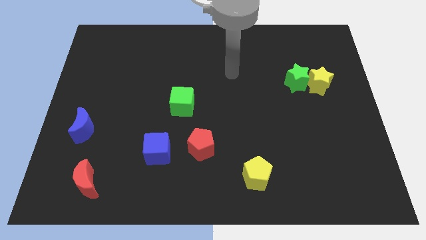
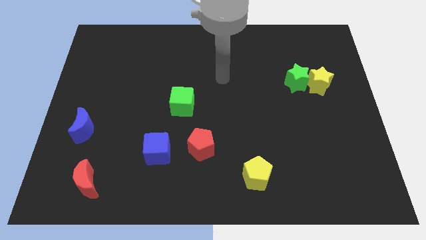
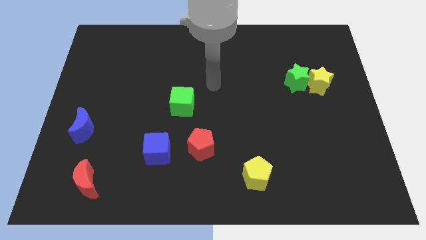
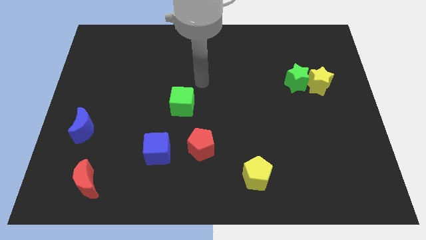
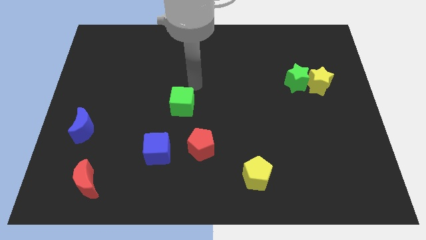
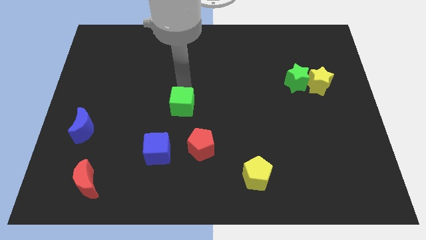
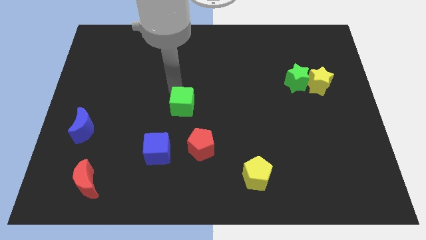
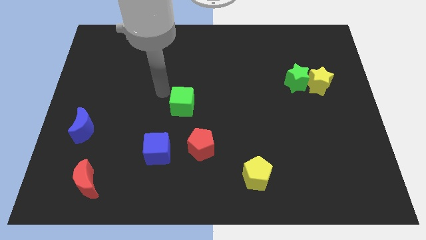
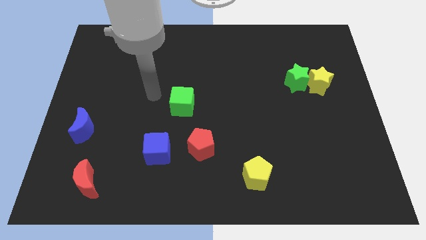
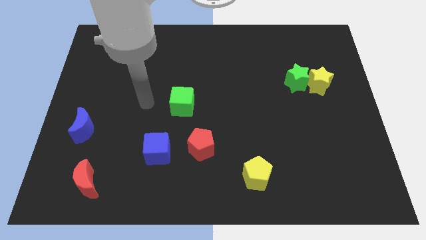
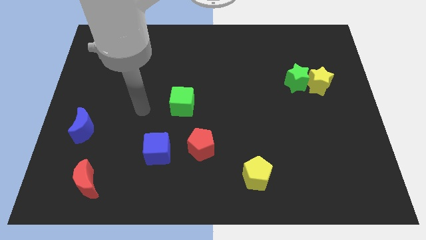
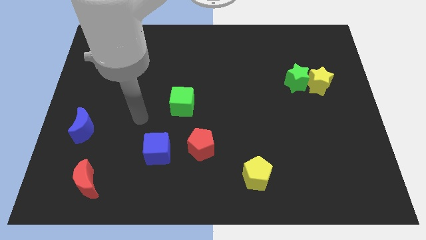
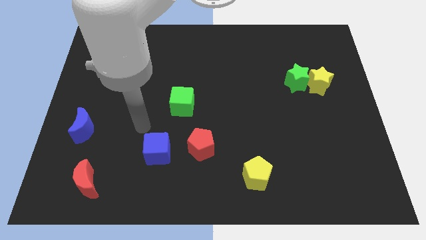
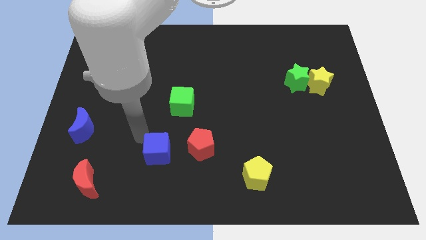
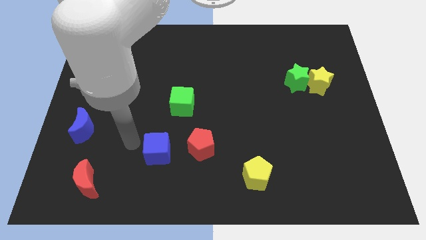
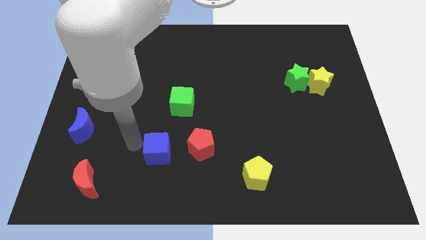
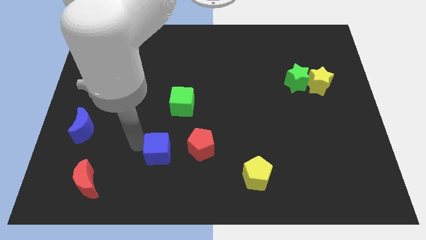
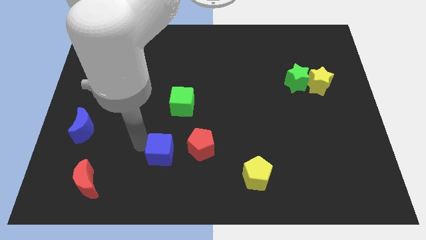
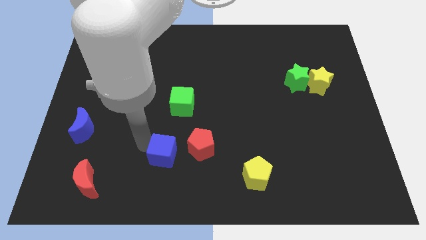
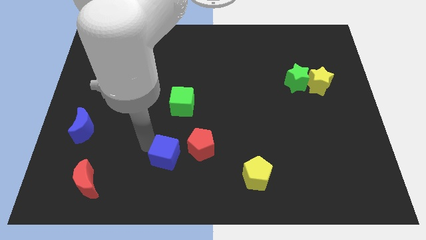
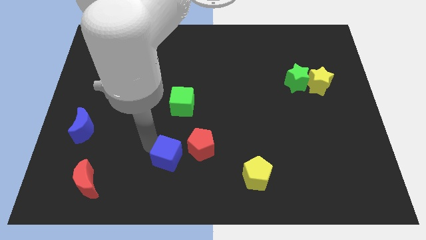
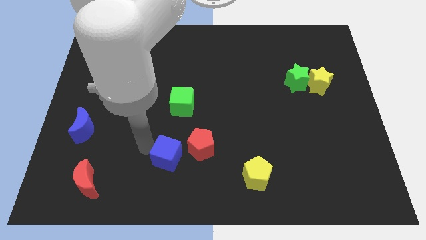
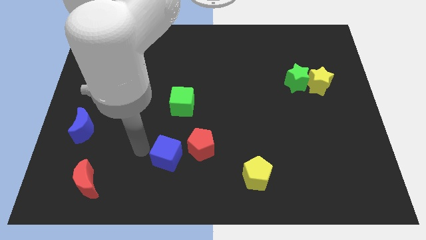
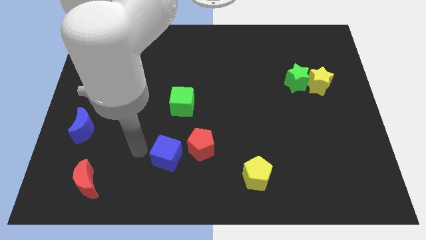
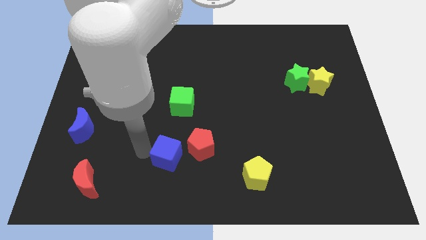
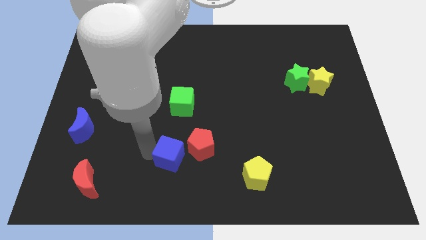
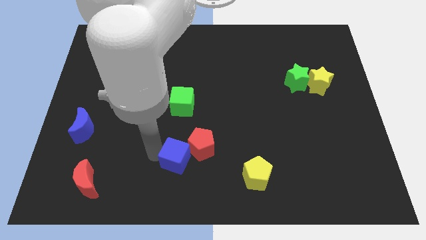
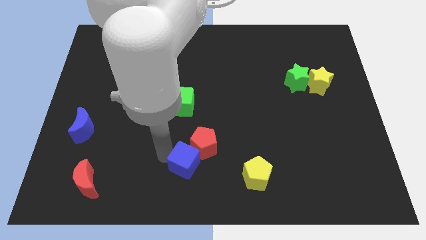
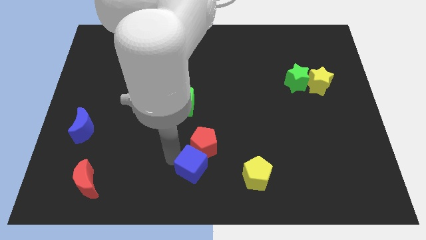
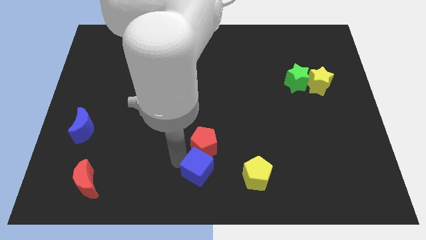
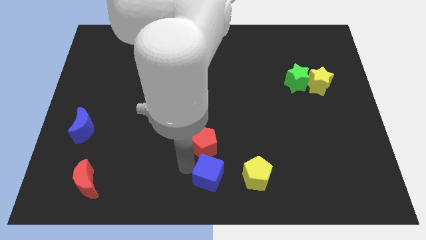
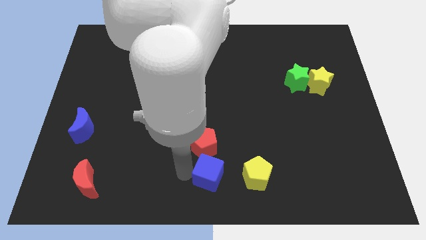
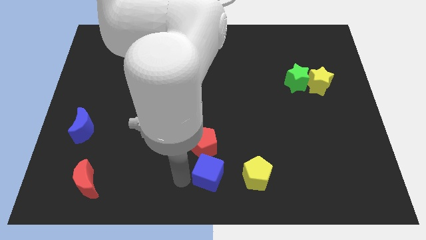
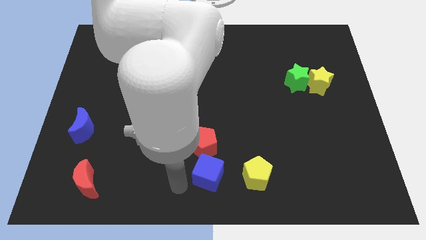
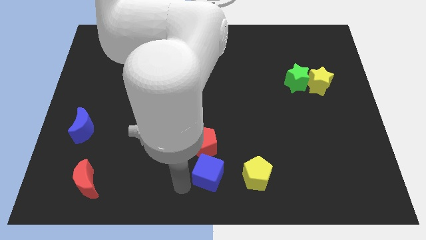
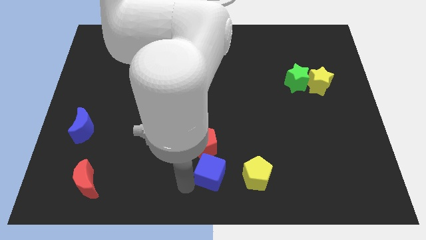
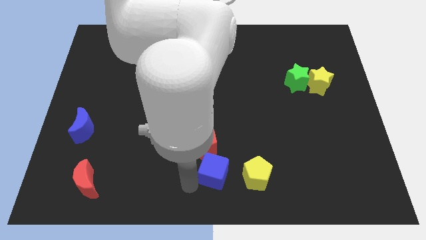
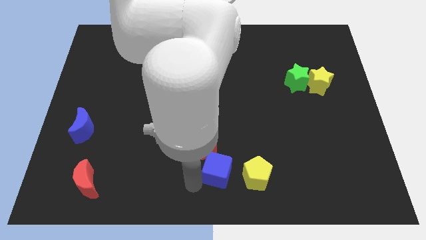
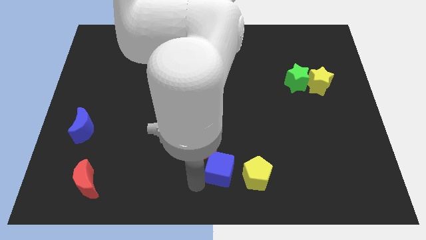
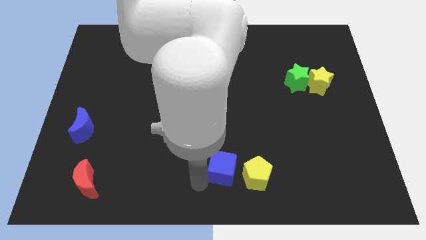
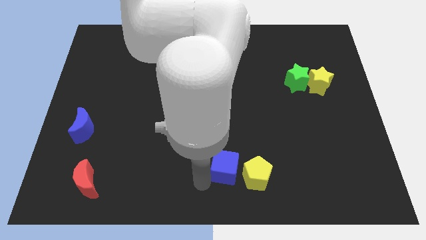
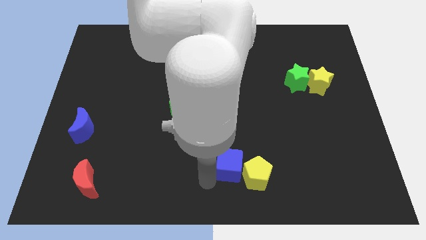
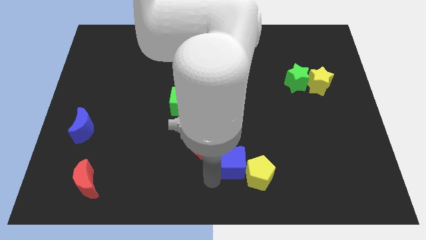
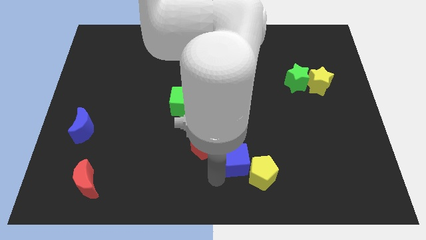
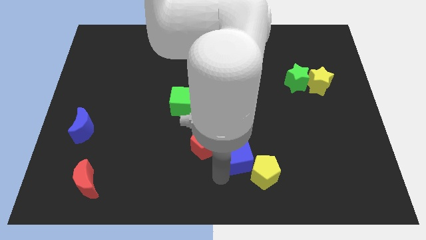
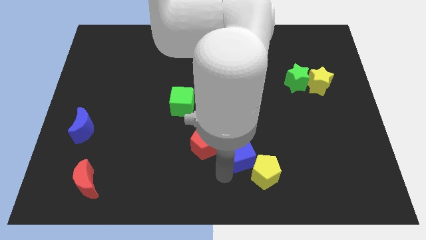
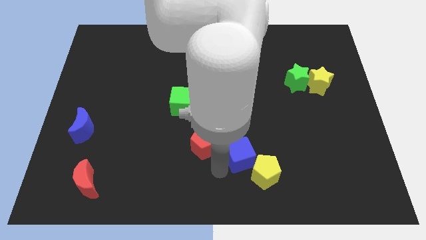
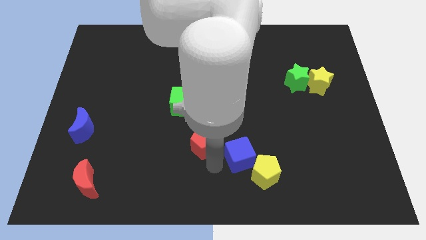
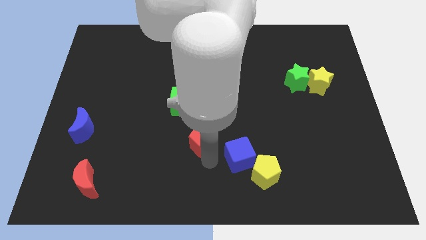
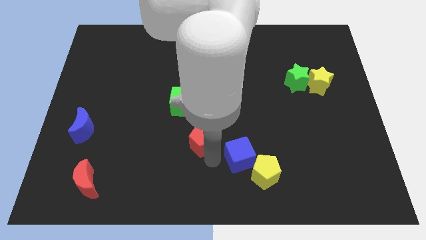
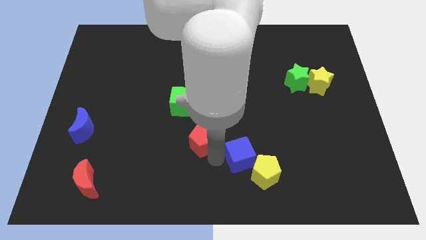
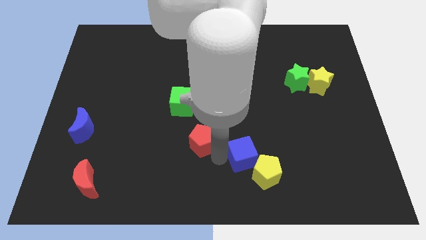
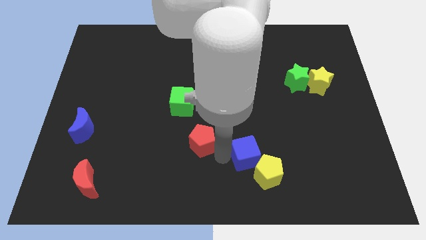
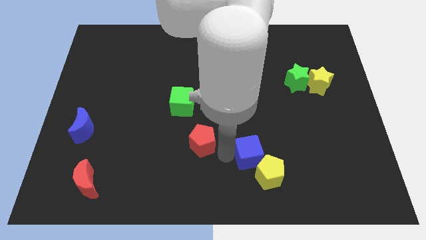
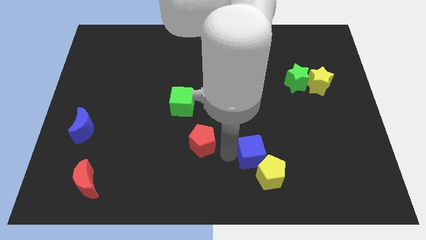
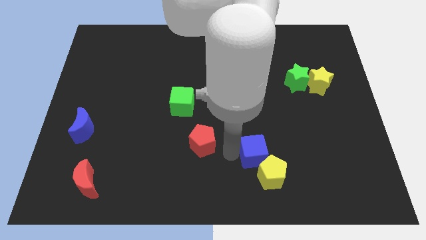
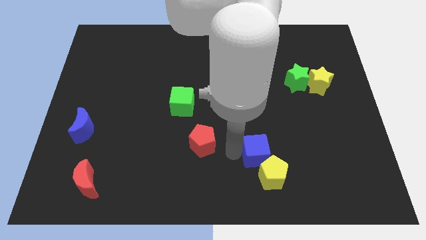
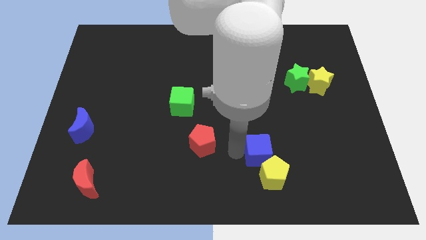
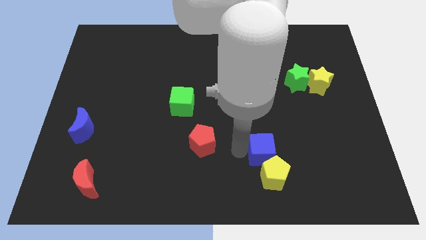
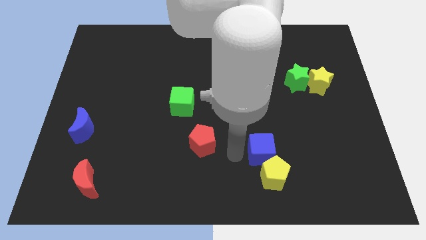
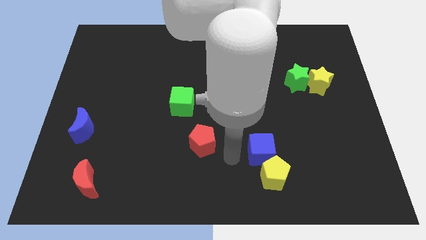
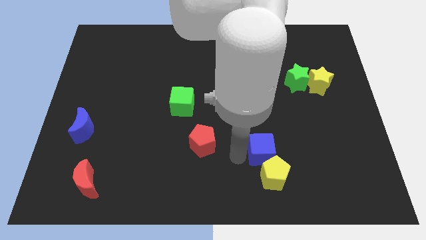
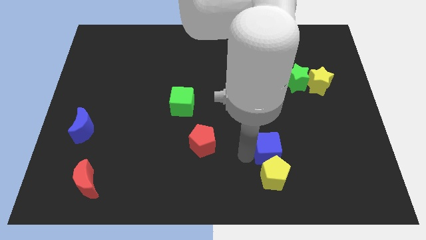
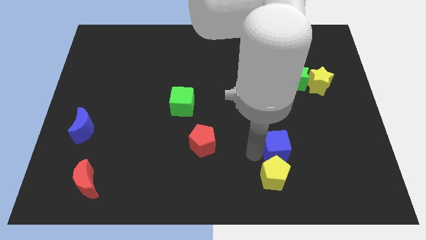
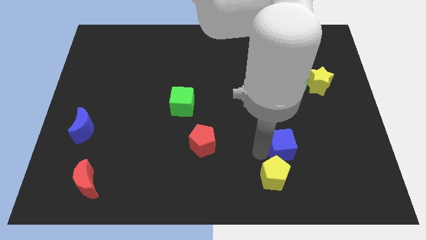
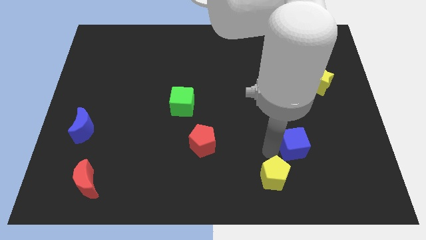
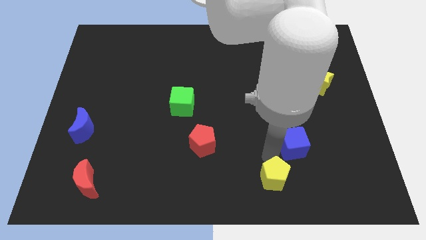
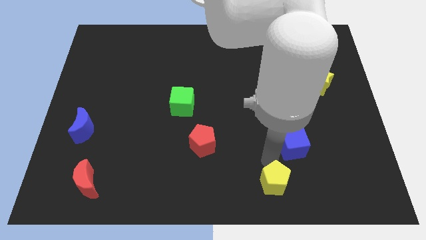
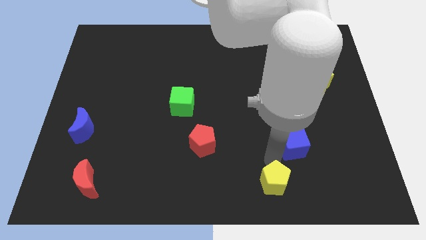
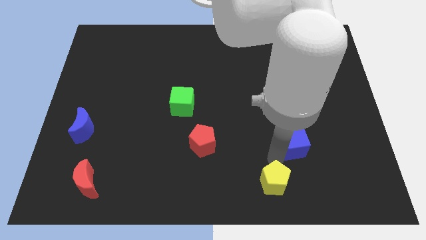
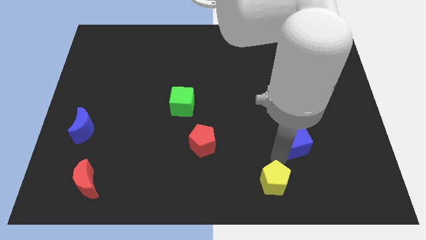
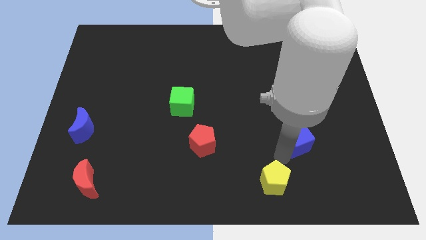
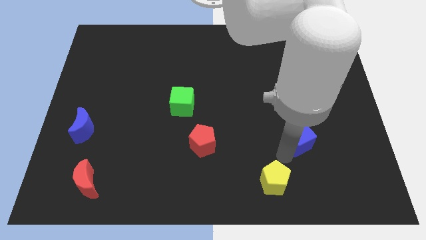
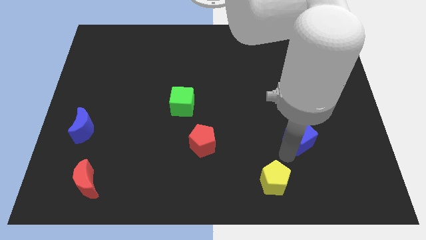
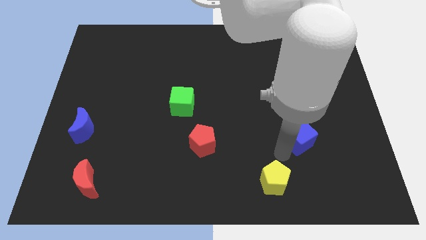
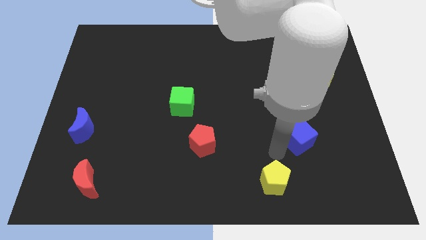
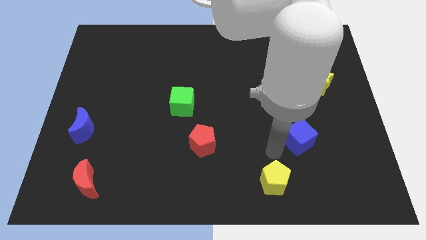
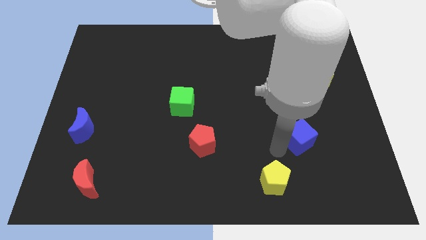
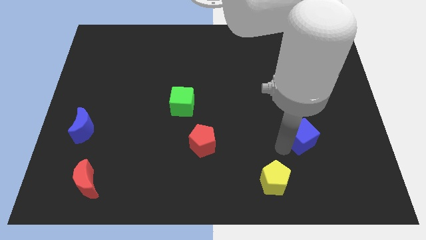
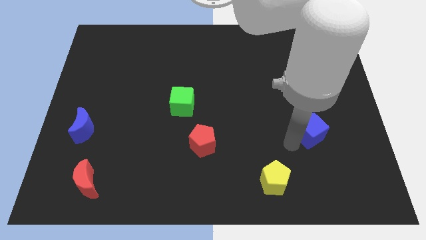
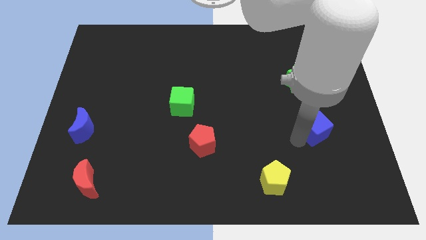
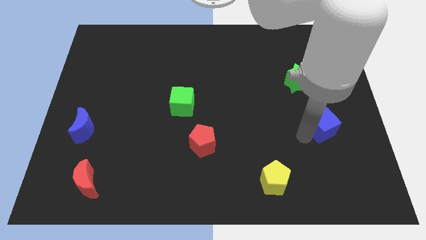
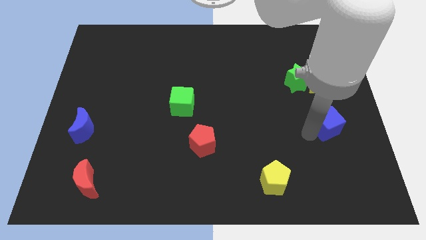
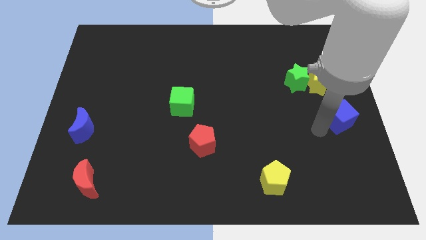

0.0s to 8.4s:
slide the blue cube to the center right
